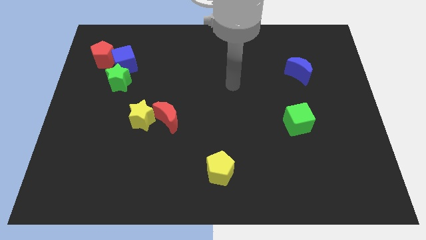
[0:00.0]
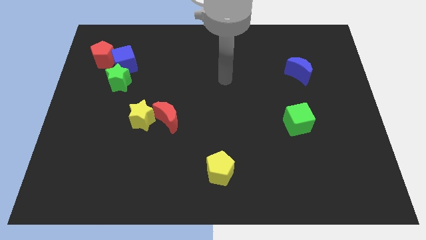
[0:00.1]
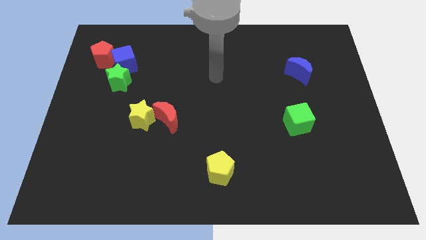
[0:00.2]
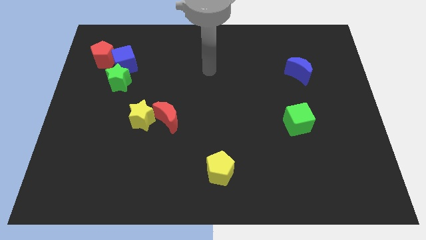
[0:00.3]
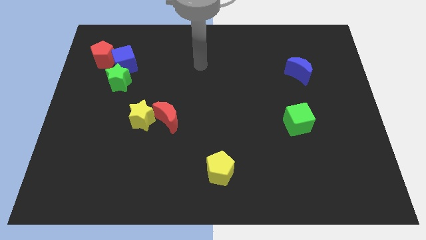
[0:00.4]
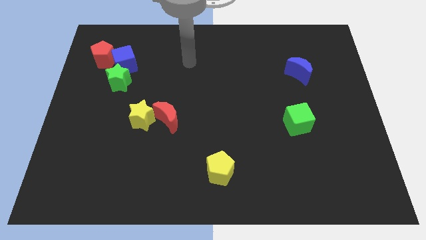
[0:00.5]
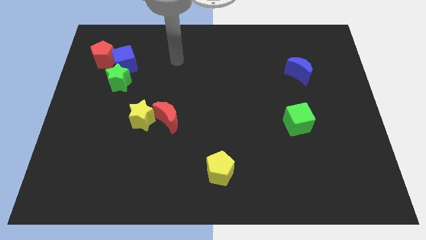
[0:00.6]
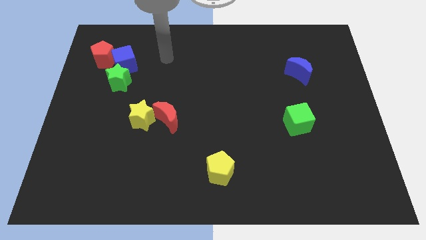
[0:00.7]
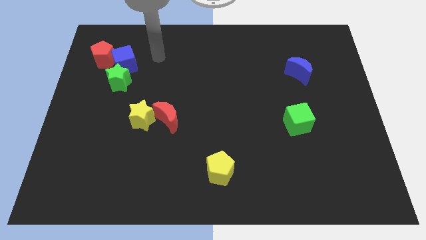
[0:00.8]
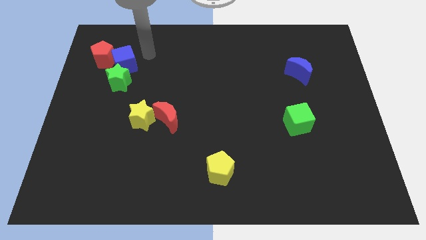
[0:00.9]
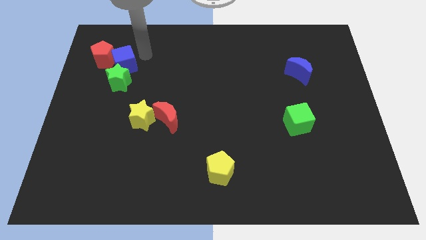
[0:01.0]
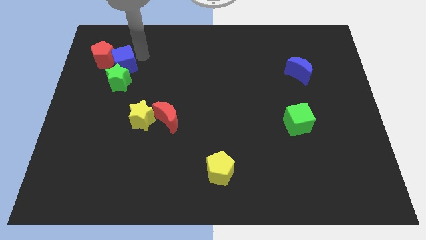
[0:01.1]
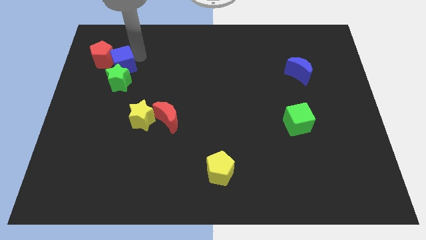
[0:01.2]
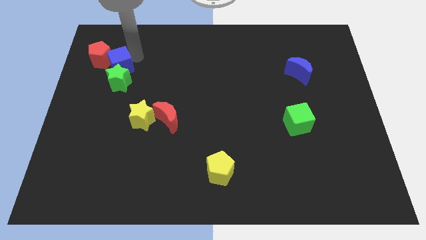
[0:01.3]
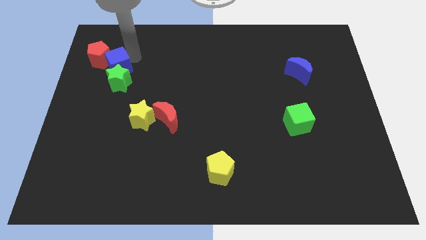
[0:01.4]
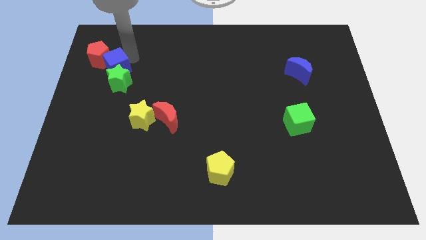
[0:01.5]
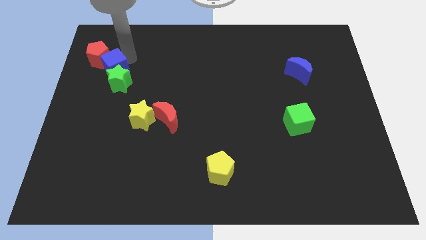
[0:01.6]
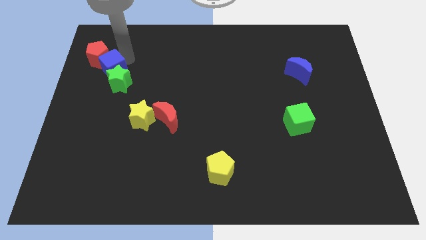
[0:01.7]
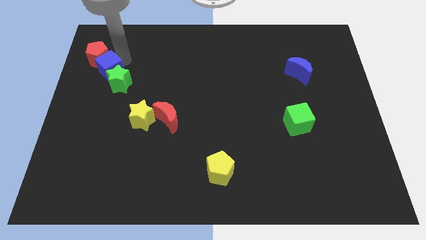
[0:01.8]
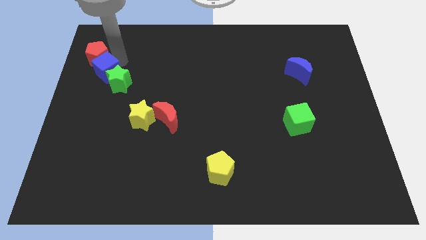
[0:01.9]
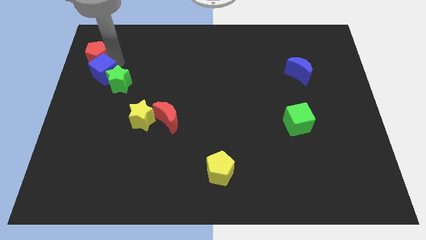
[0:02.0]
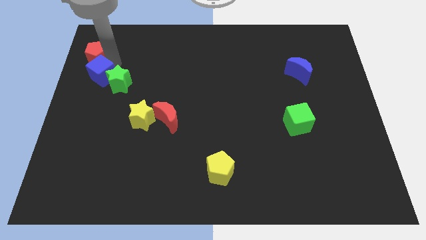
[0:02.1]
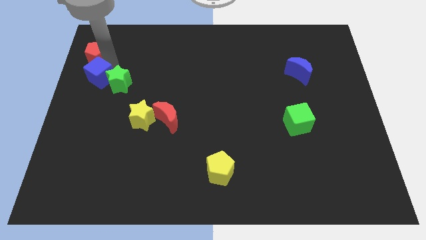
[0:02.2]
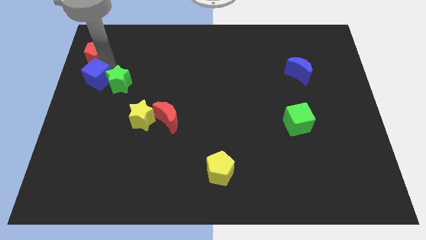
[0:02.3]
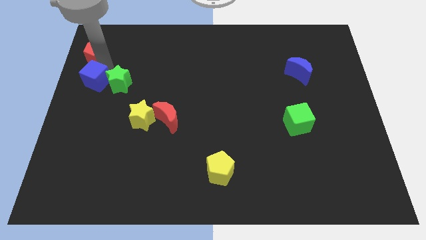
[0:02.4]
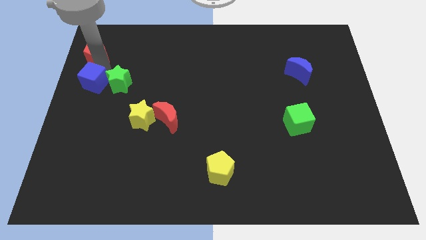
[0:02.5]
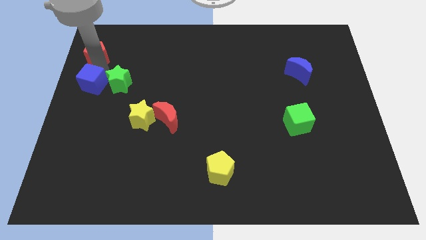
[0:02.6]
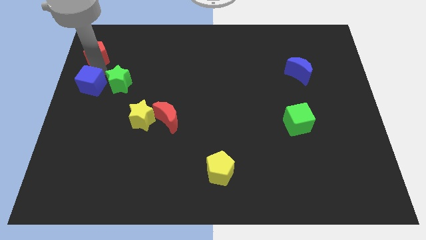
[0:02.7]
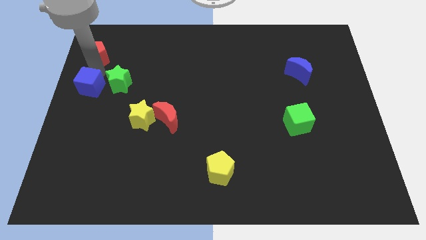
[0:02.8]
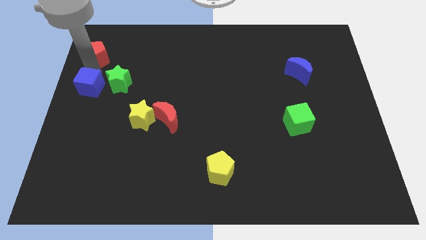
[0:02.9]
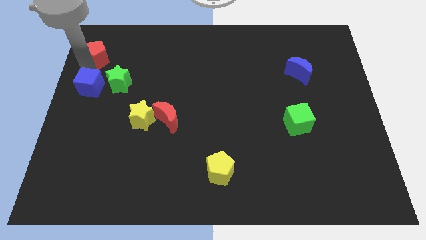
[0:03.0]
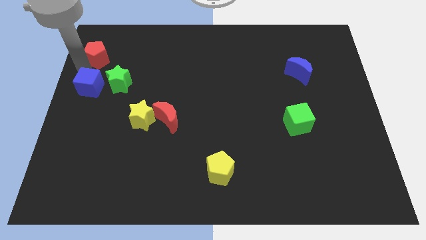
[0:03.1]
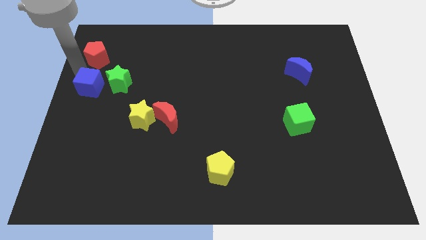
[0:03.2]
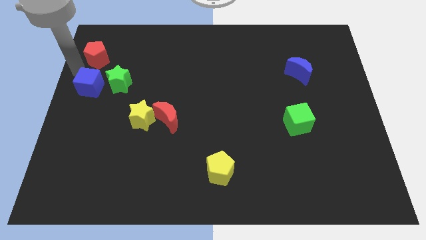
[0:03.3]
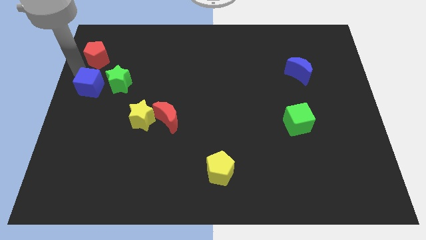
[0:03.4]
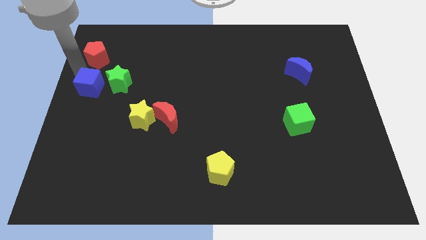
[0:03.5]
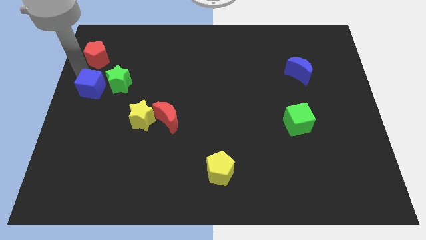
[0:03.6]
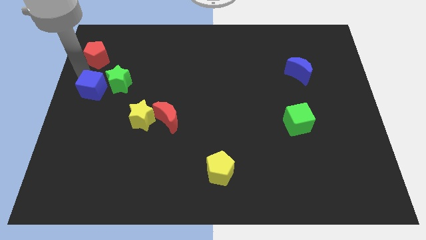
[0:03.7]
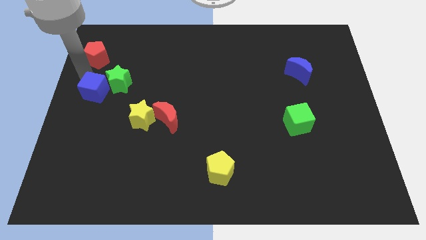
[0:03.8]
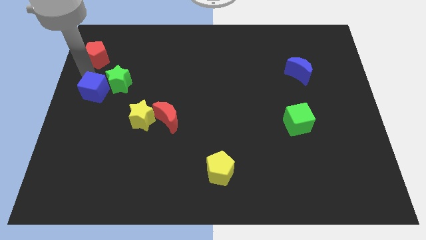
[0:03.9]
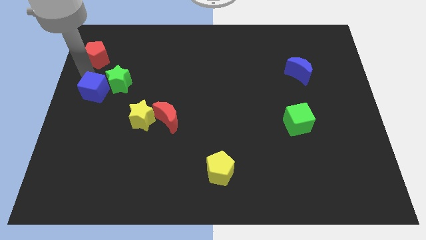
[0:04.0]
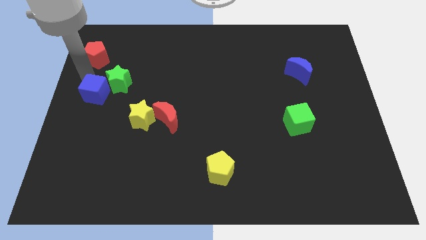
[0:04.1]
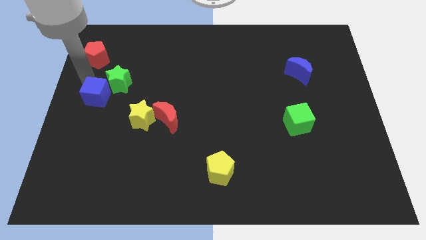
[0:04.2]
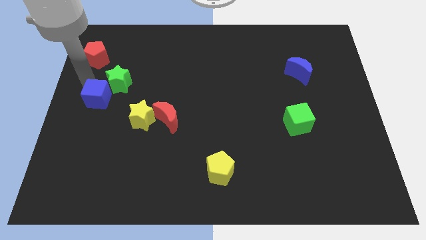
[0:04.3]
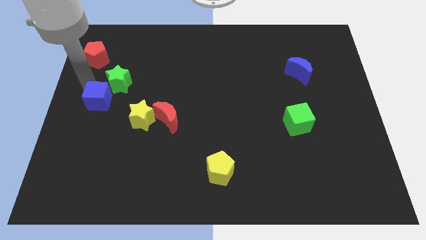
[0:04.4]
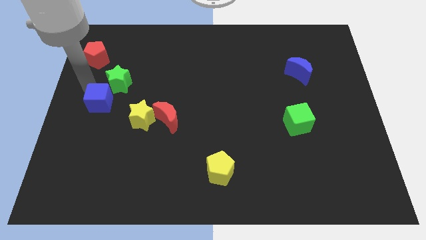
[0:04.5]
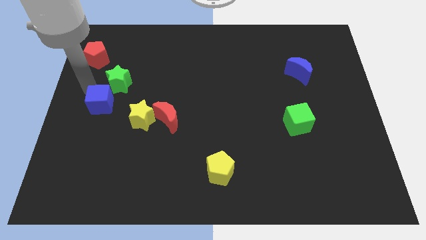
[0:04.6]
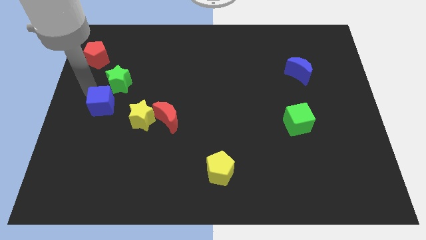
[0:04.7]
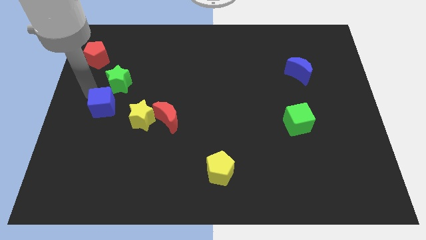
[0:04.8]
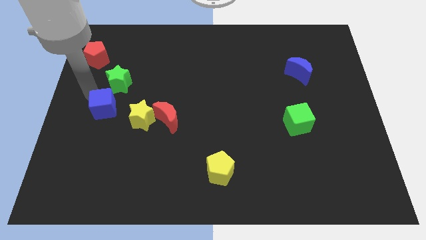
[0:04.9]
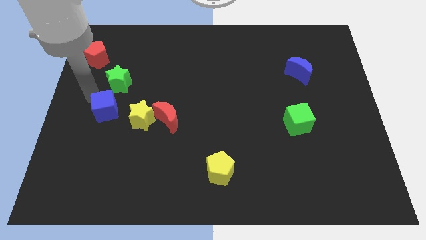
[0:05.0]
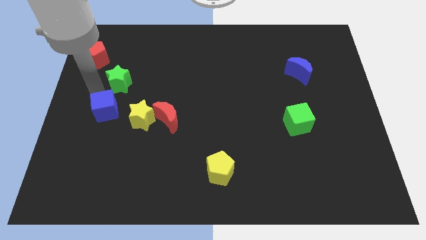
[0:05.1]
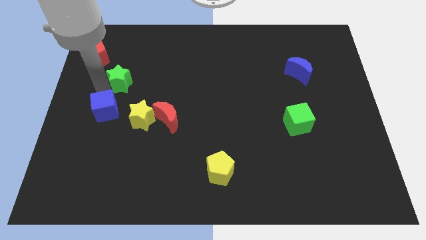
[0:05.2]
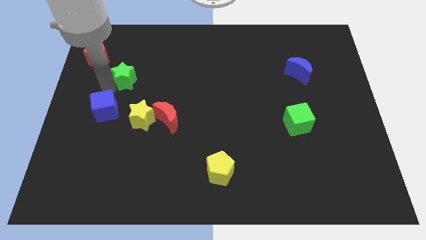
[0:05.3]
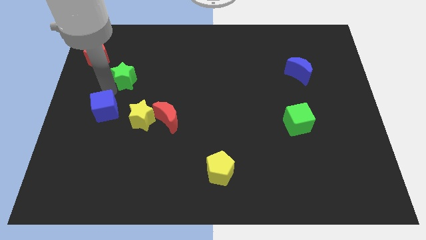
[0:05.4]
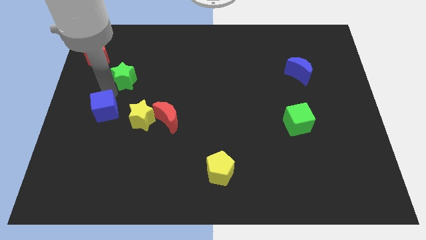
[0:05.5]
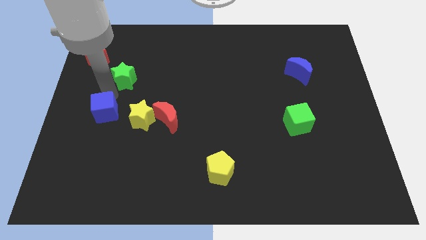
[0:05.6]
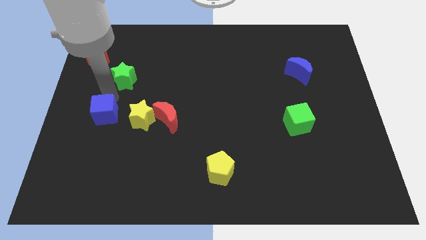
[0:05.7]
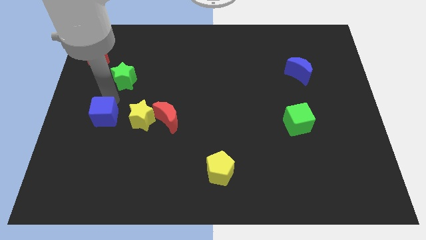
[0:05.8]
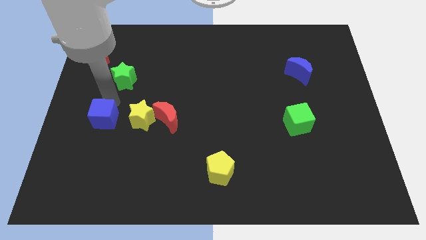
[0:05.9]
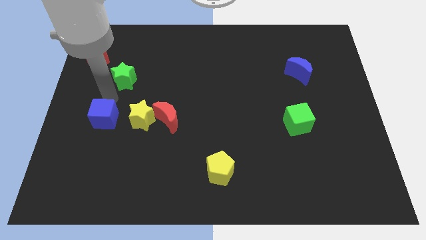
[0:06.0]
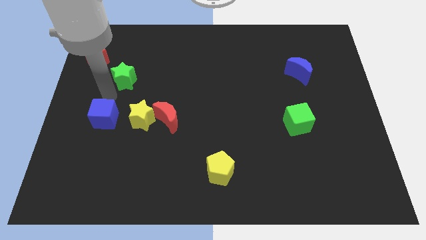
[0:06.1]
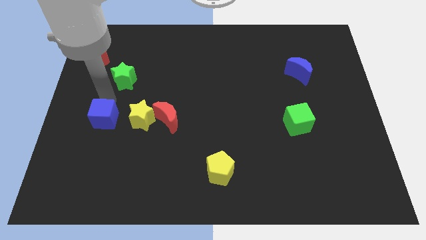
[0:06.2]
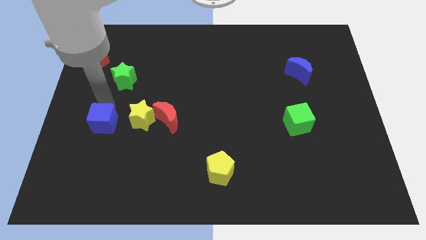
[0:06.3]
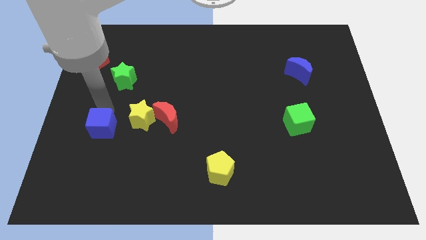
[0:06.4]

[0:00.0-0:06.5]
move the blue cube down

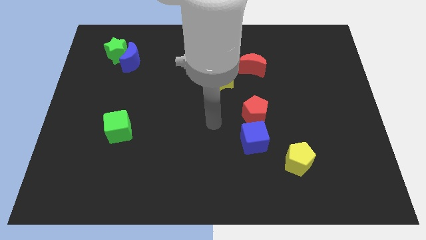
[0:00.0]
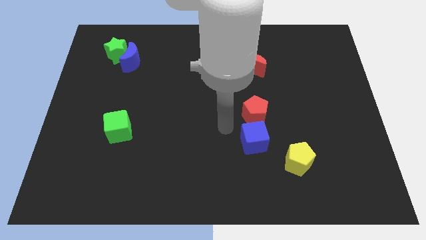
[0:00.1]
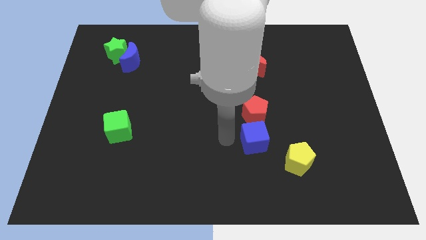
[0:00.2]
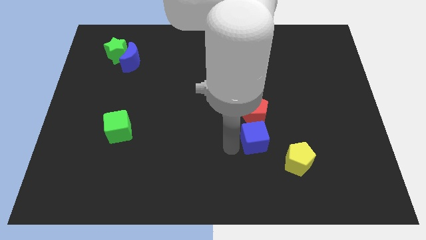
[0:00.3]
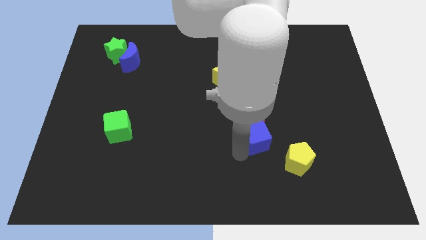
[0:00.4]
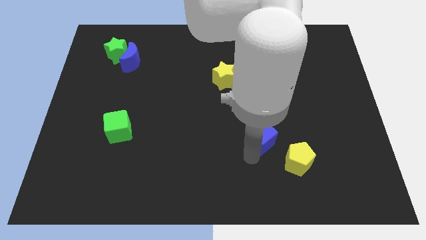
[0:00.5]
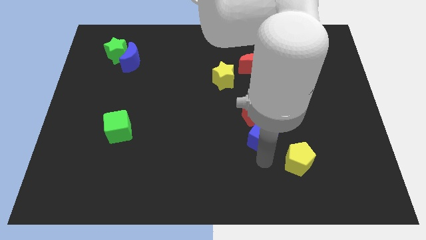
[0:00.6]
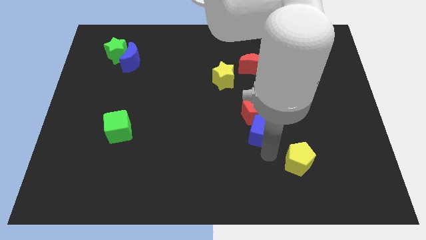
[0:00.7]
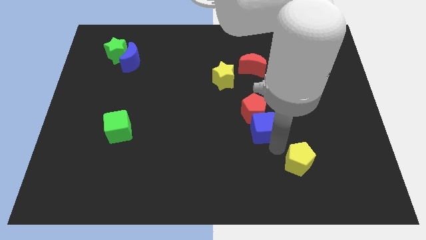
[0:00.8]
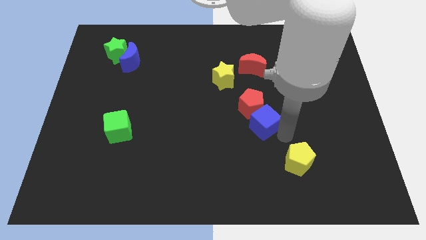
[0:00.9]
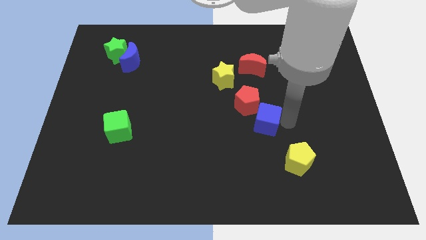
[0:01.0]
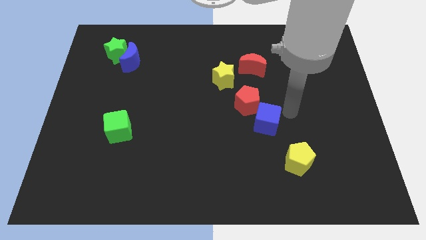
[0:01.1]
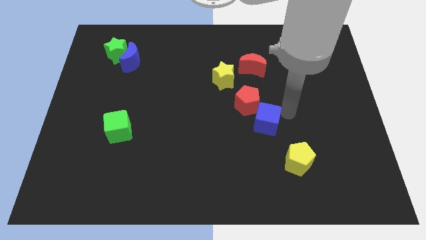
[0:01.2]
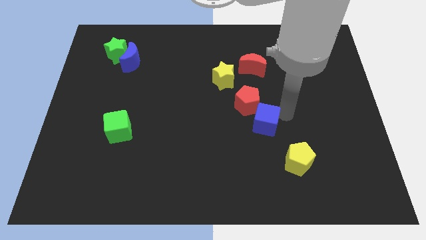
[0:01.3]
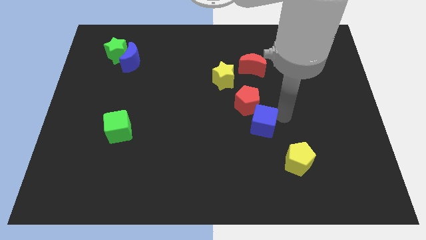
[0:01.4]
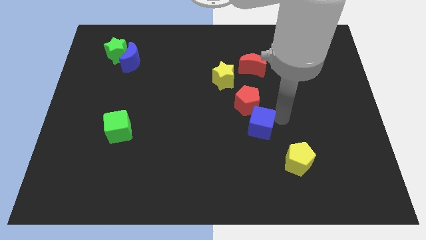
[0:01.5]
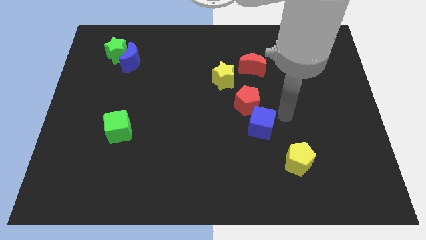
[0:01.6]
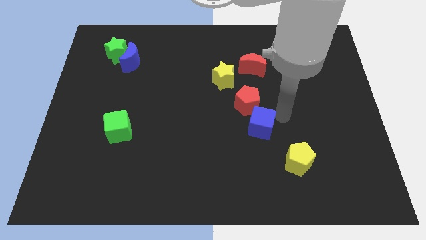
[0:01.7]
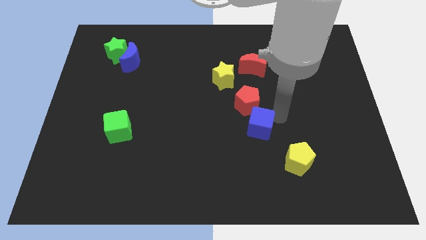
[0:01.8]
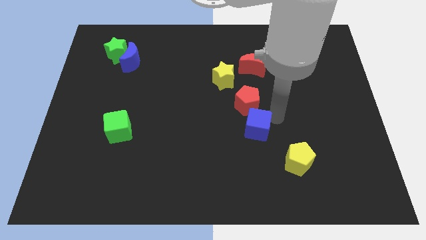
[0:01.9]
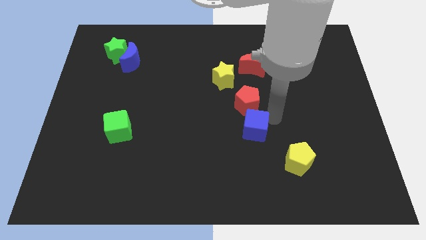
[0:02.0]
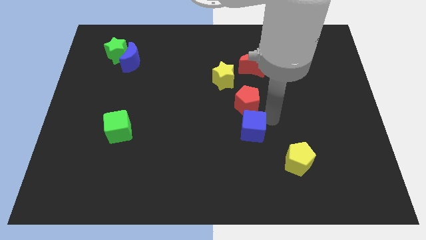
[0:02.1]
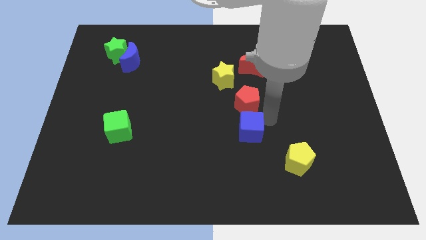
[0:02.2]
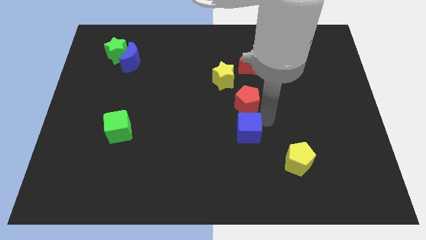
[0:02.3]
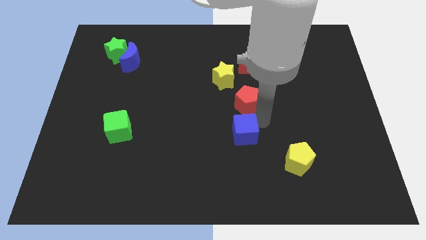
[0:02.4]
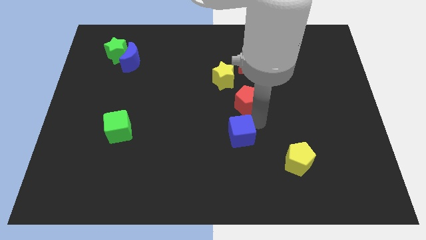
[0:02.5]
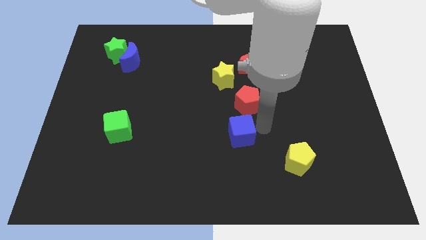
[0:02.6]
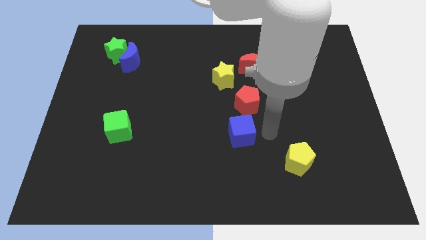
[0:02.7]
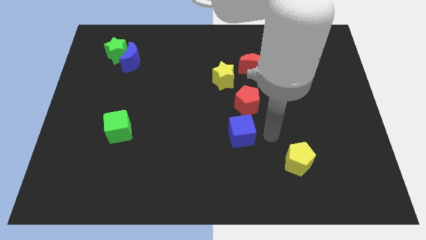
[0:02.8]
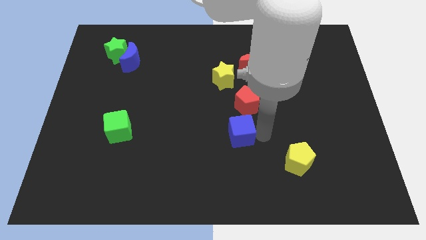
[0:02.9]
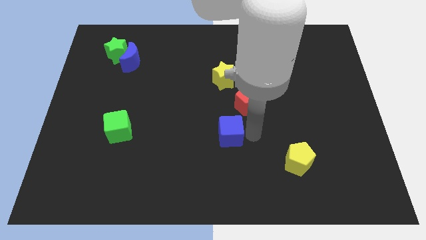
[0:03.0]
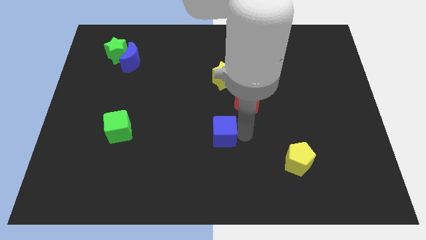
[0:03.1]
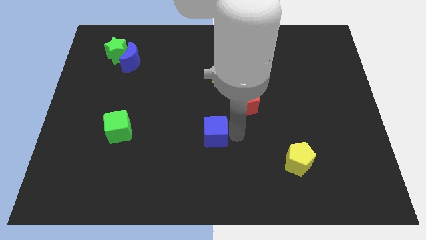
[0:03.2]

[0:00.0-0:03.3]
move the blue cube a bit left
